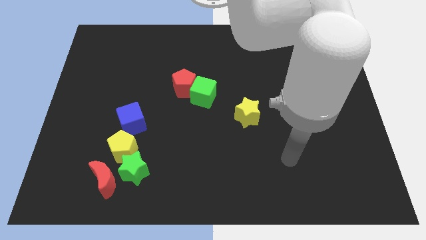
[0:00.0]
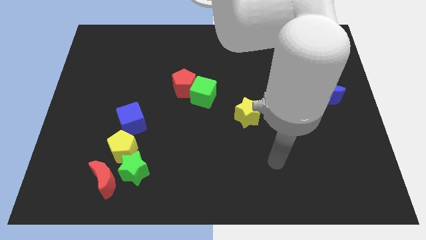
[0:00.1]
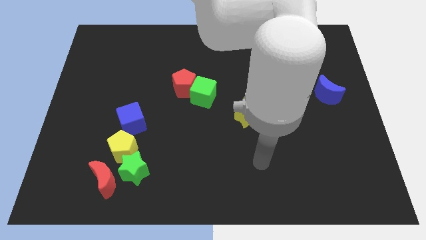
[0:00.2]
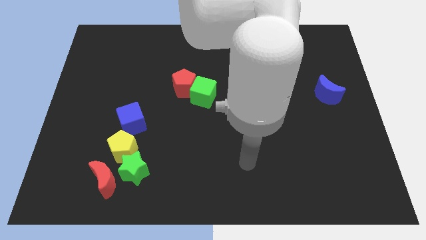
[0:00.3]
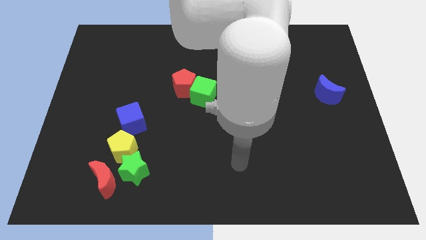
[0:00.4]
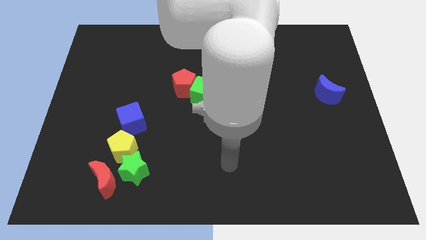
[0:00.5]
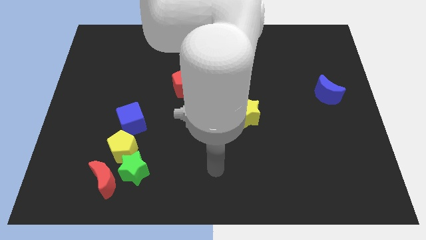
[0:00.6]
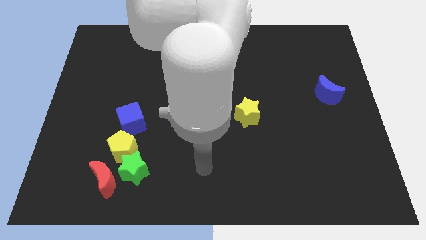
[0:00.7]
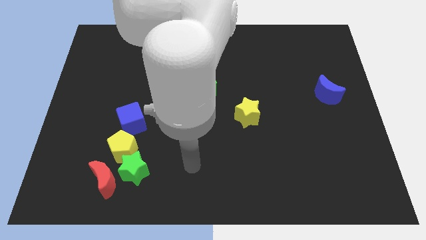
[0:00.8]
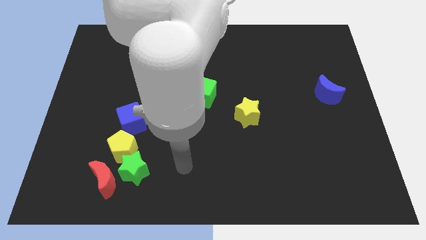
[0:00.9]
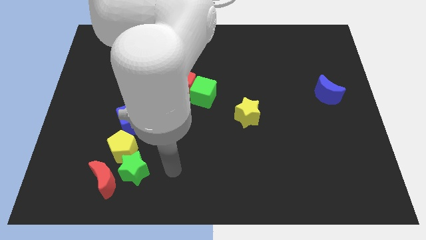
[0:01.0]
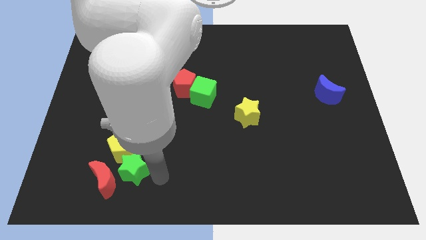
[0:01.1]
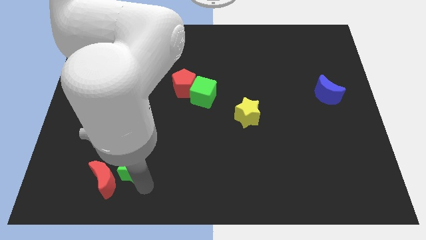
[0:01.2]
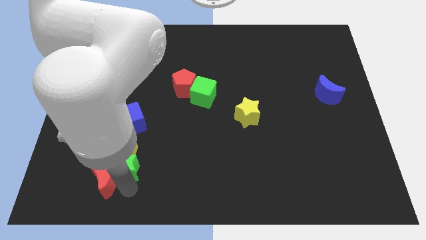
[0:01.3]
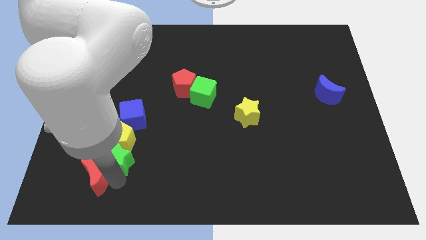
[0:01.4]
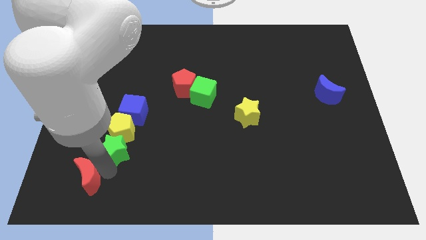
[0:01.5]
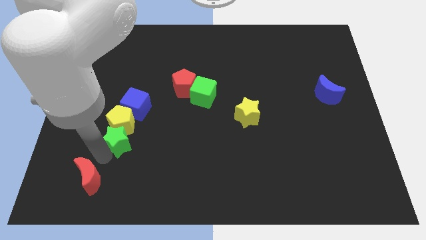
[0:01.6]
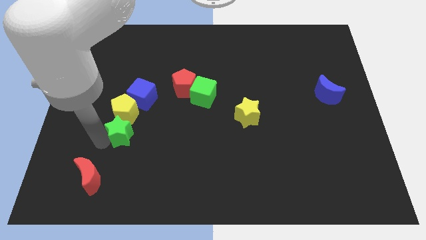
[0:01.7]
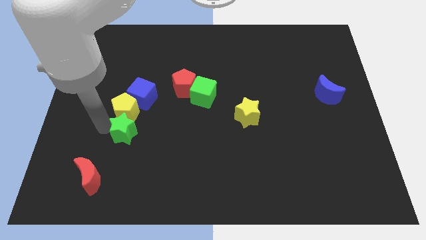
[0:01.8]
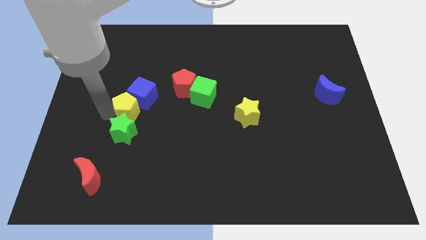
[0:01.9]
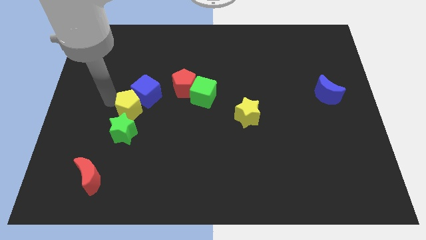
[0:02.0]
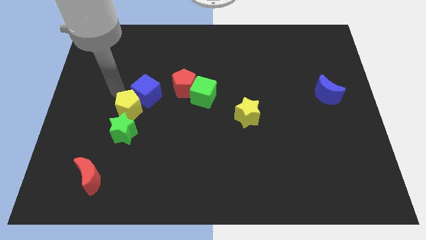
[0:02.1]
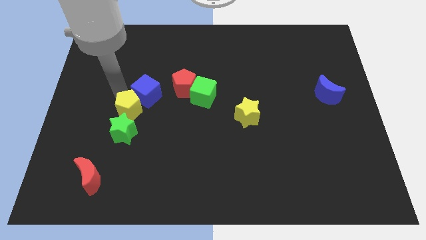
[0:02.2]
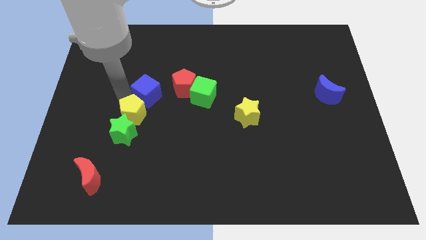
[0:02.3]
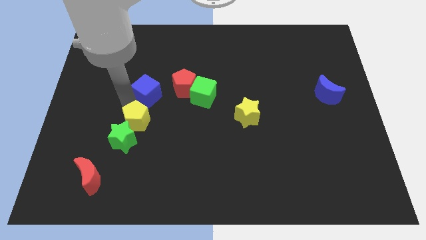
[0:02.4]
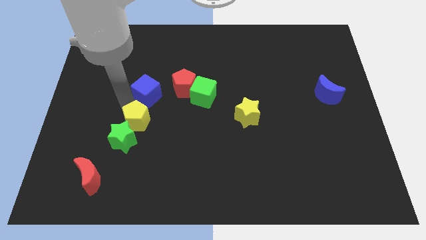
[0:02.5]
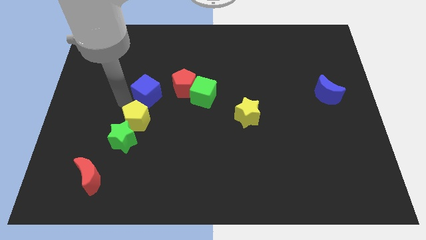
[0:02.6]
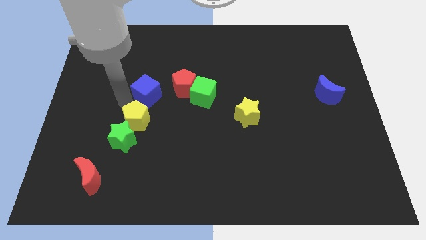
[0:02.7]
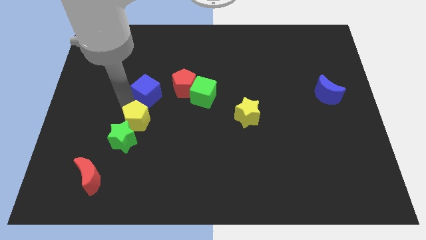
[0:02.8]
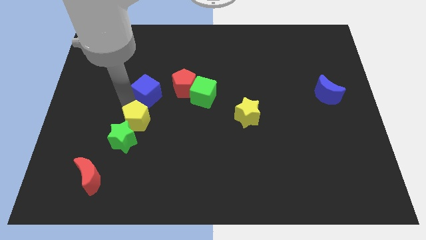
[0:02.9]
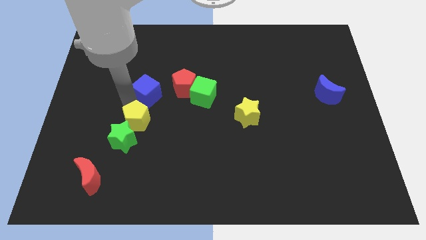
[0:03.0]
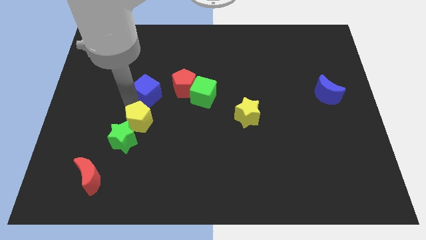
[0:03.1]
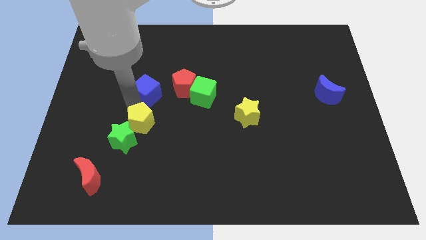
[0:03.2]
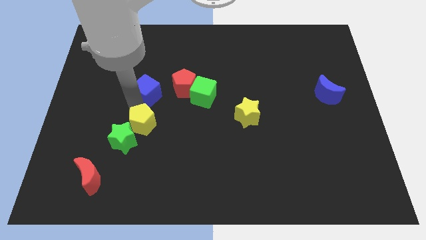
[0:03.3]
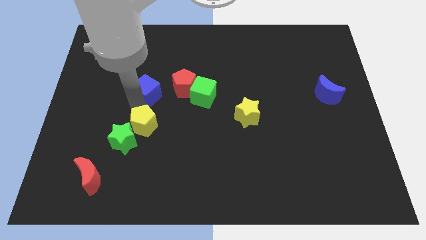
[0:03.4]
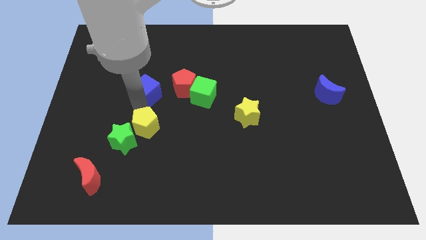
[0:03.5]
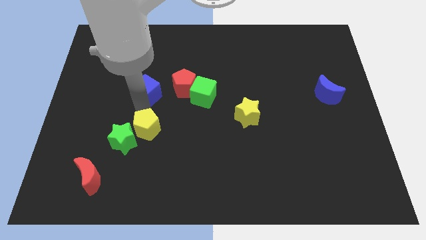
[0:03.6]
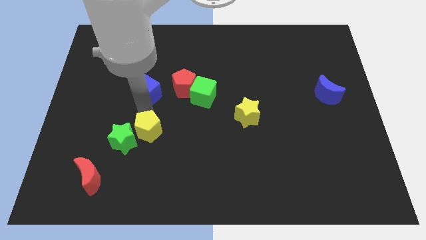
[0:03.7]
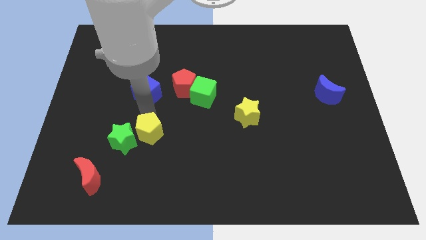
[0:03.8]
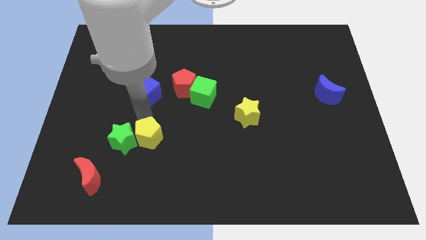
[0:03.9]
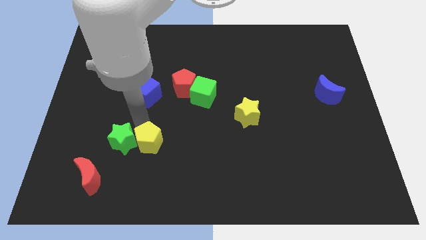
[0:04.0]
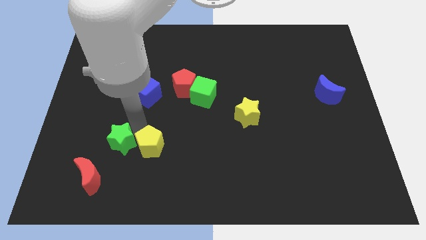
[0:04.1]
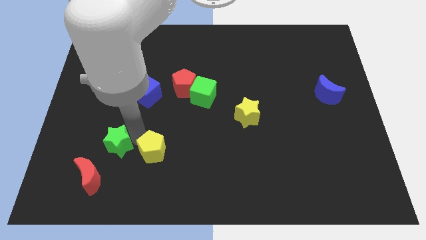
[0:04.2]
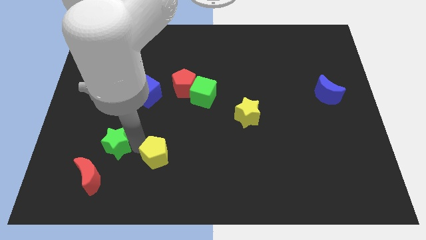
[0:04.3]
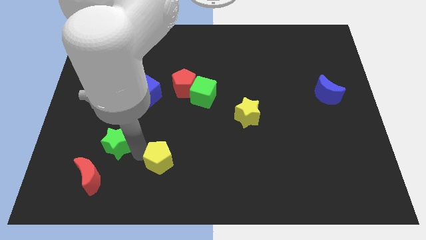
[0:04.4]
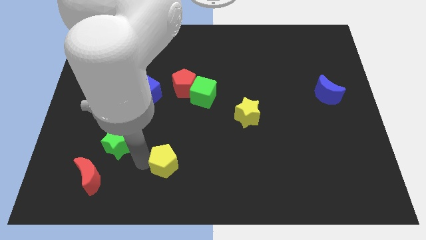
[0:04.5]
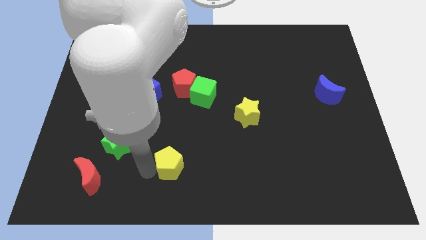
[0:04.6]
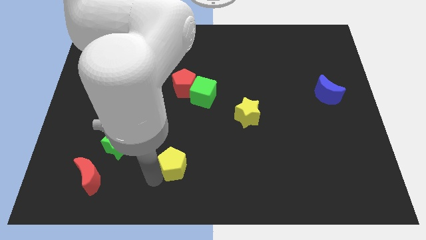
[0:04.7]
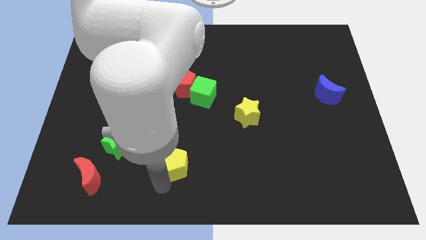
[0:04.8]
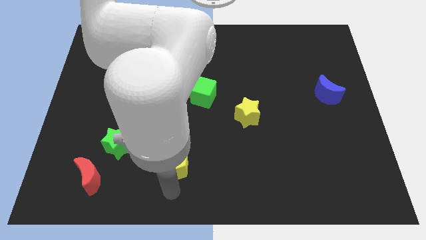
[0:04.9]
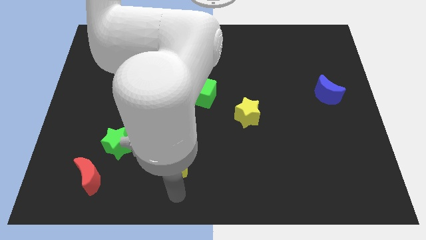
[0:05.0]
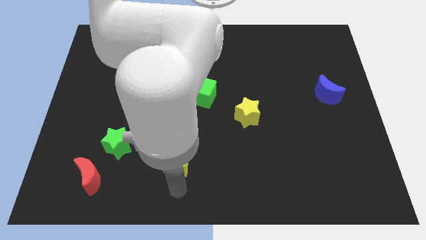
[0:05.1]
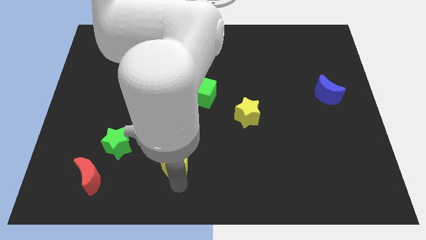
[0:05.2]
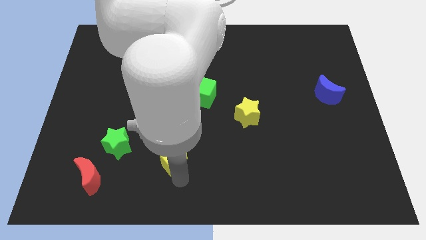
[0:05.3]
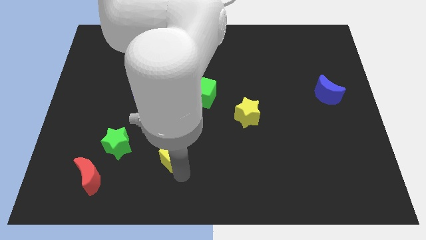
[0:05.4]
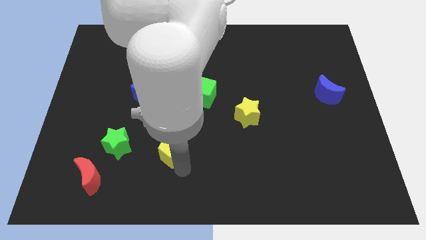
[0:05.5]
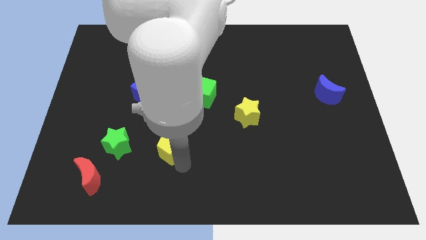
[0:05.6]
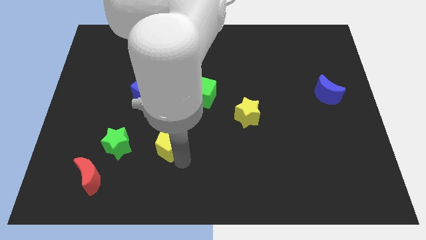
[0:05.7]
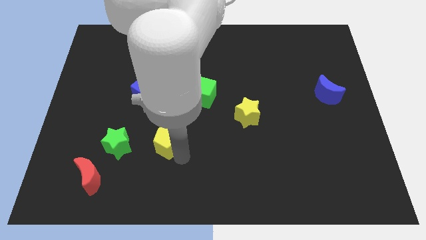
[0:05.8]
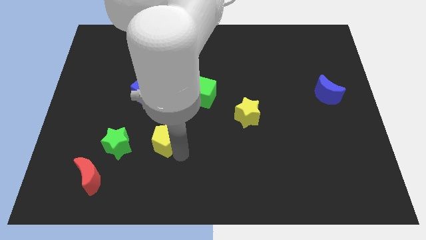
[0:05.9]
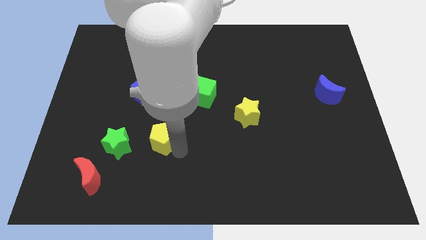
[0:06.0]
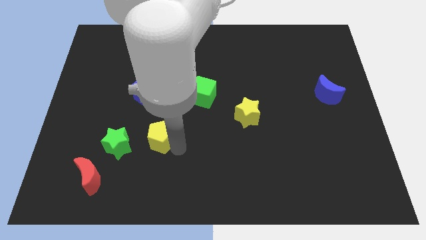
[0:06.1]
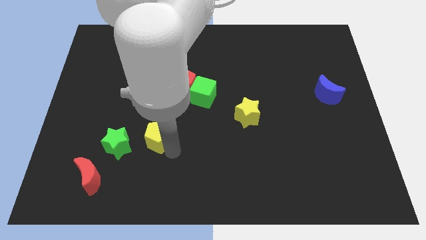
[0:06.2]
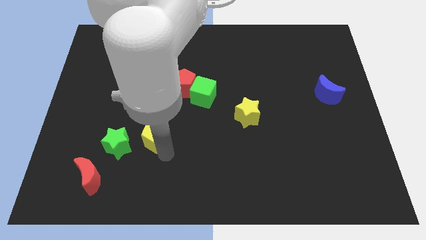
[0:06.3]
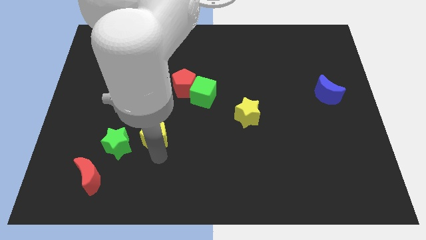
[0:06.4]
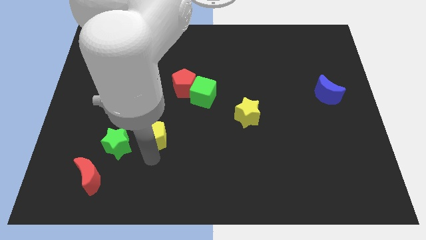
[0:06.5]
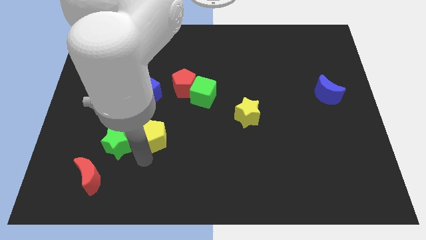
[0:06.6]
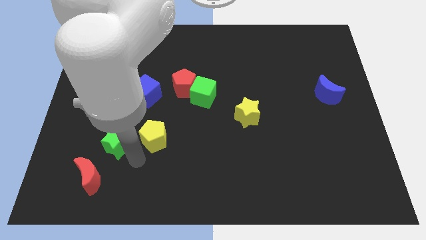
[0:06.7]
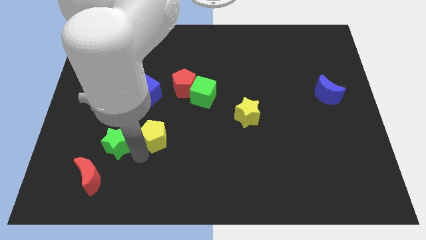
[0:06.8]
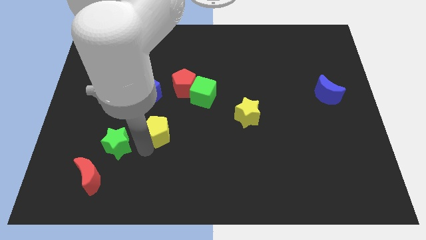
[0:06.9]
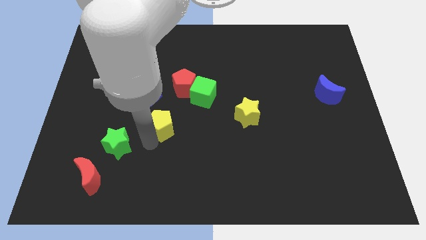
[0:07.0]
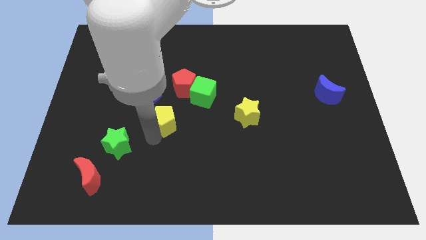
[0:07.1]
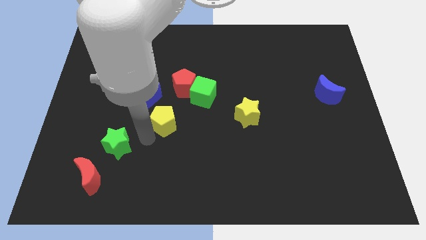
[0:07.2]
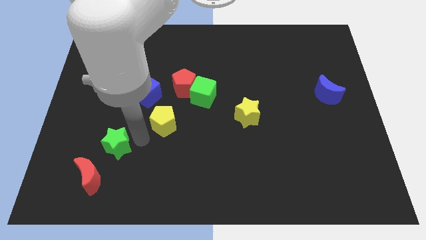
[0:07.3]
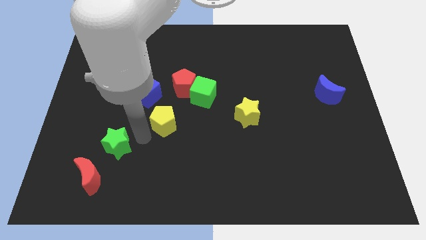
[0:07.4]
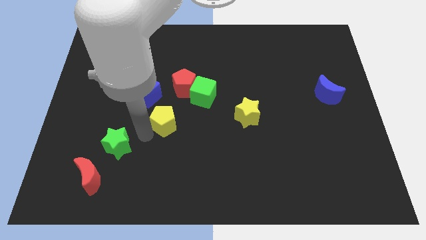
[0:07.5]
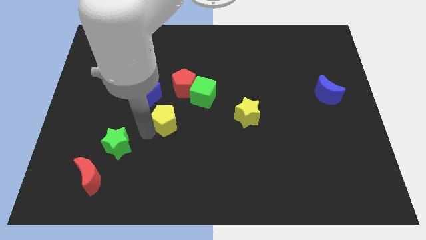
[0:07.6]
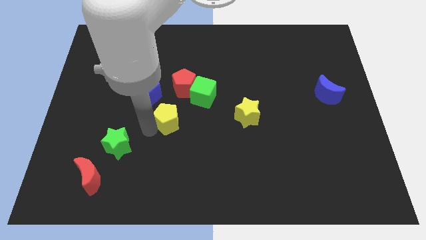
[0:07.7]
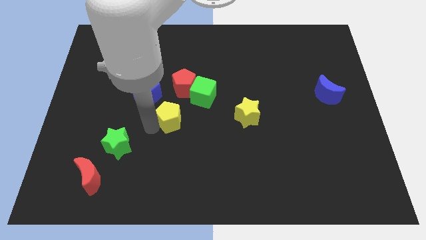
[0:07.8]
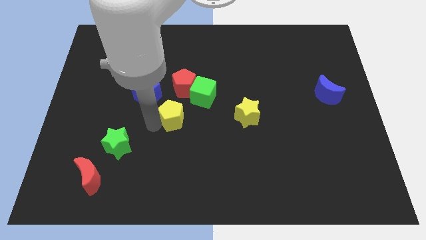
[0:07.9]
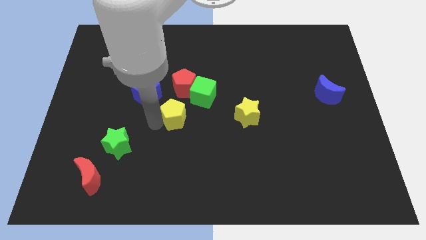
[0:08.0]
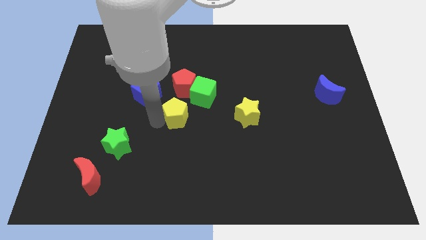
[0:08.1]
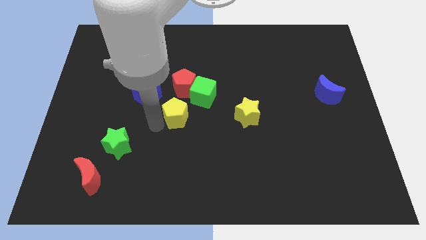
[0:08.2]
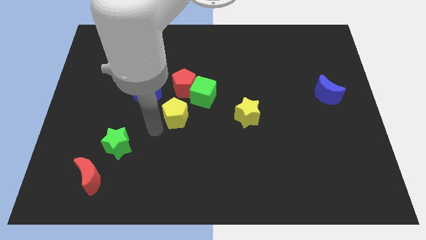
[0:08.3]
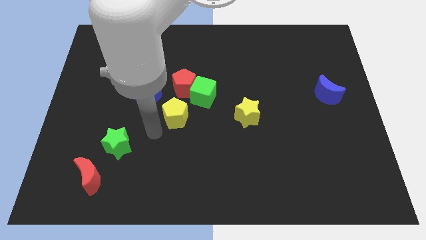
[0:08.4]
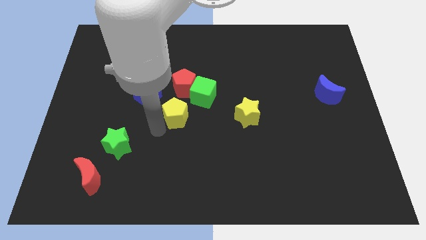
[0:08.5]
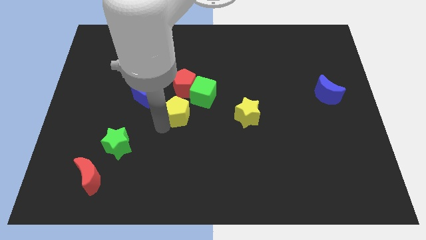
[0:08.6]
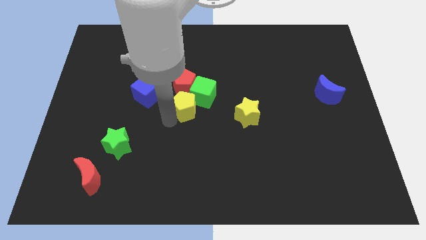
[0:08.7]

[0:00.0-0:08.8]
slide the yellow pentagon close to the green cube
